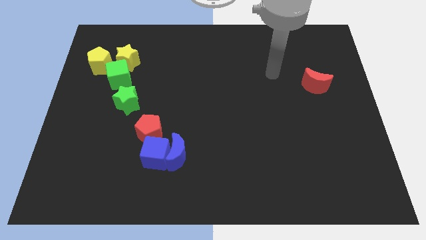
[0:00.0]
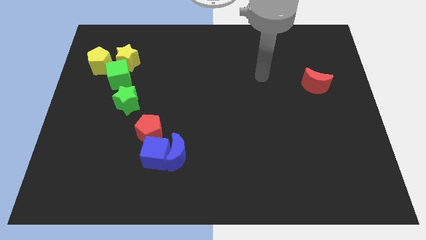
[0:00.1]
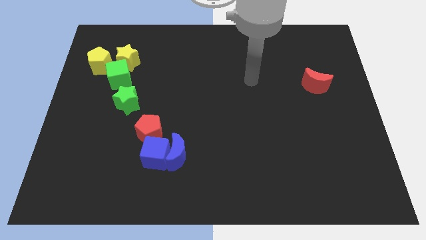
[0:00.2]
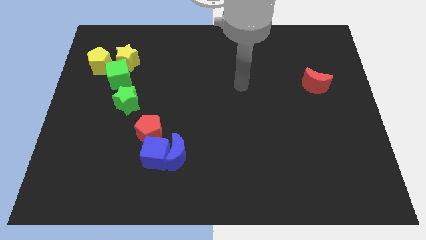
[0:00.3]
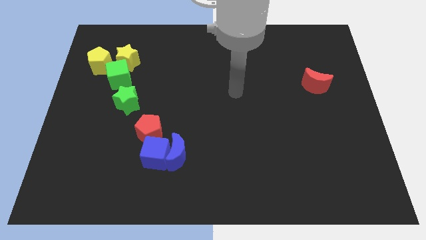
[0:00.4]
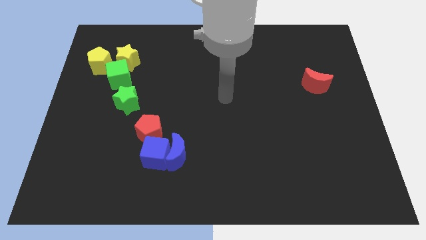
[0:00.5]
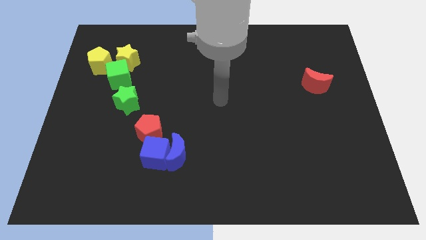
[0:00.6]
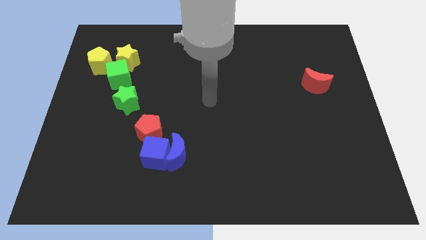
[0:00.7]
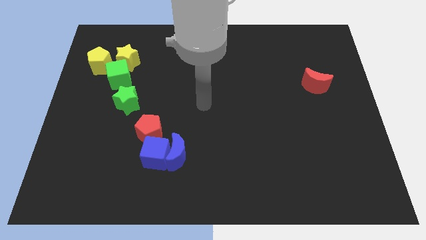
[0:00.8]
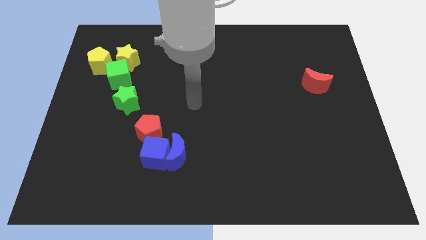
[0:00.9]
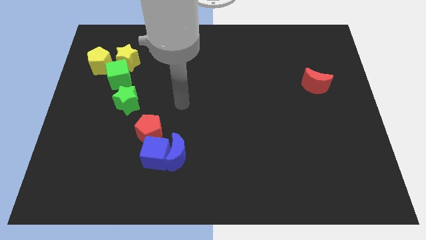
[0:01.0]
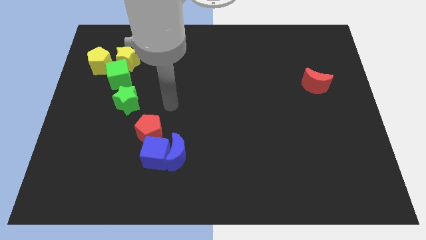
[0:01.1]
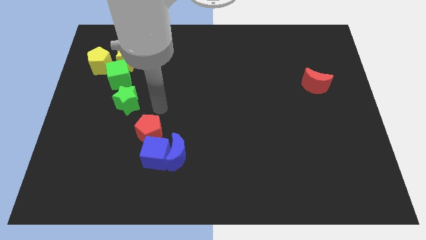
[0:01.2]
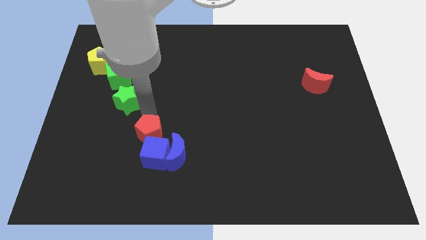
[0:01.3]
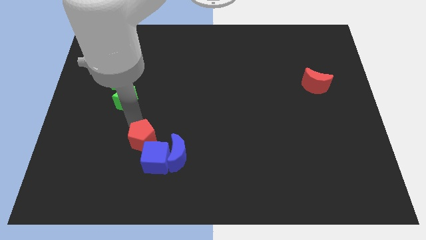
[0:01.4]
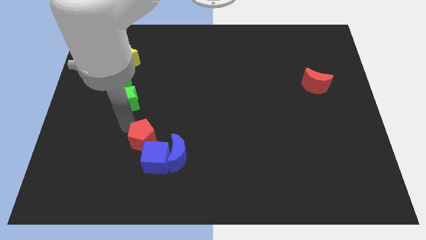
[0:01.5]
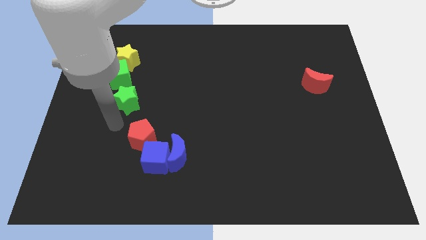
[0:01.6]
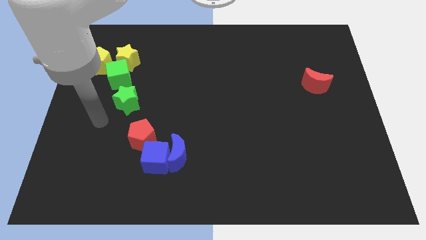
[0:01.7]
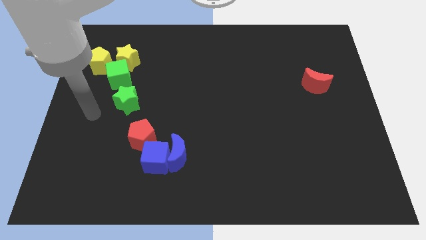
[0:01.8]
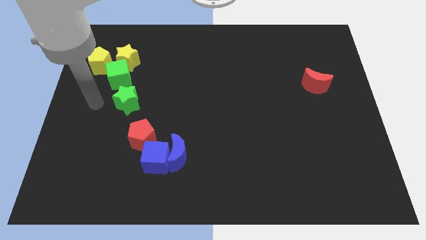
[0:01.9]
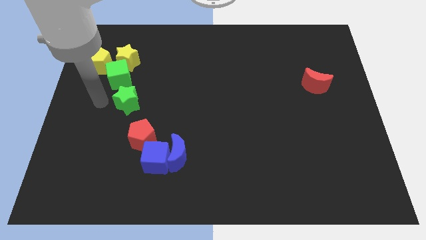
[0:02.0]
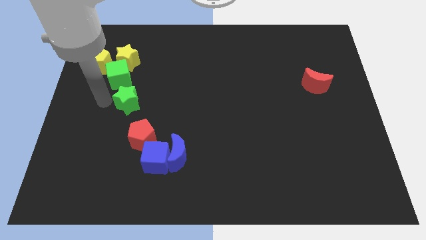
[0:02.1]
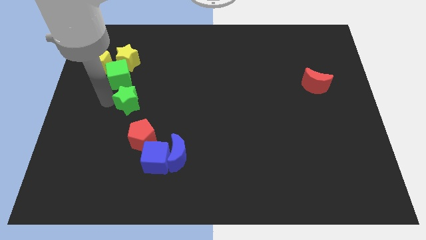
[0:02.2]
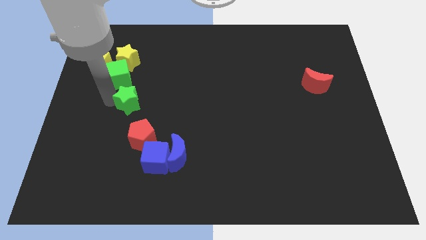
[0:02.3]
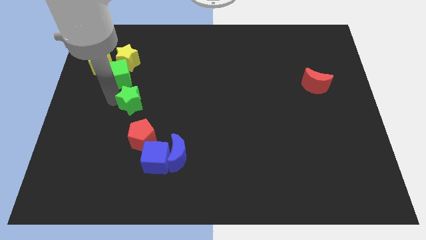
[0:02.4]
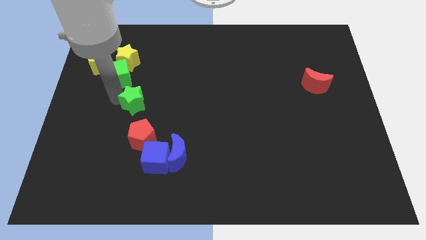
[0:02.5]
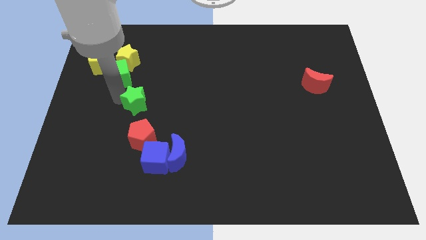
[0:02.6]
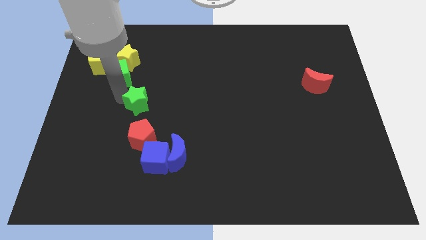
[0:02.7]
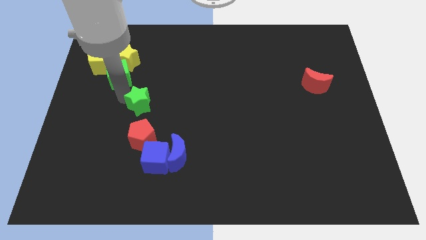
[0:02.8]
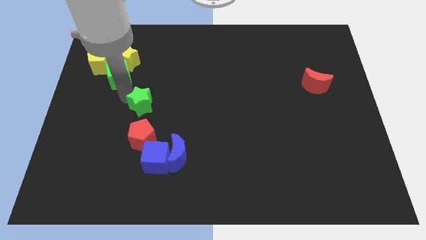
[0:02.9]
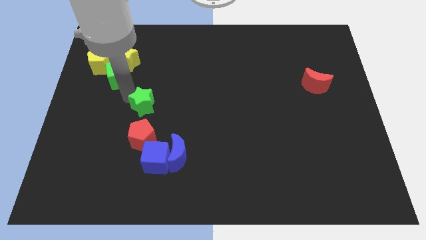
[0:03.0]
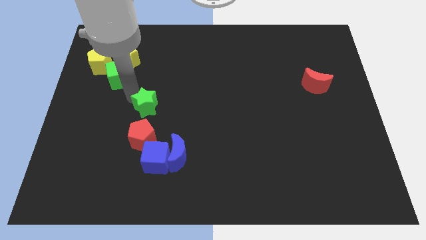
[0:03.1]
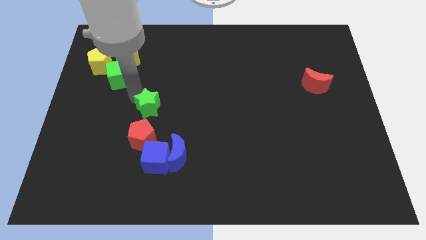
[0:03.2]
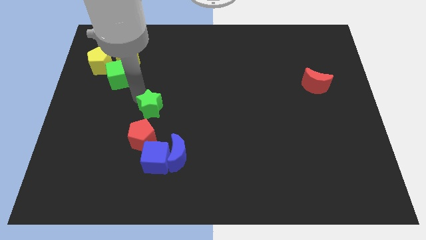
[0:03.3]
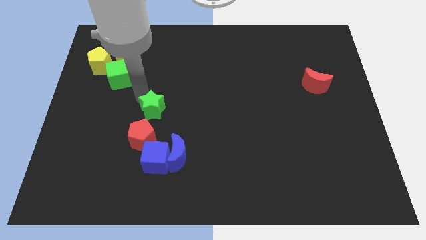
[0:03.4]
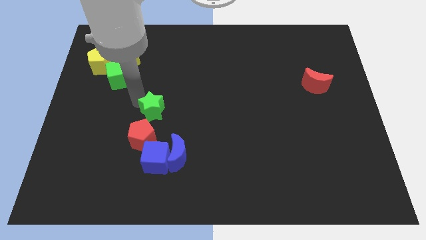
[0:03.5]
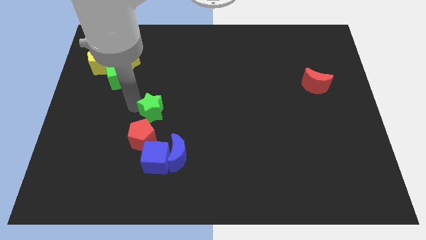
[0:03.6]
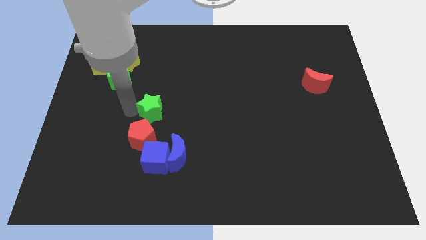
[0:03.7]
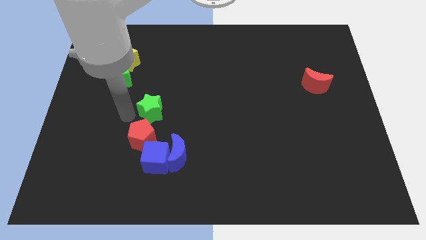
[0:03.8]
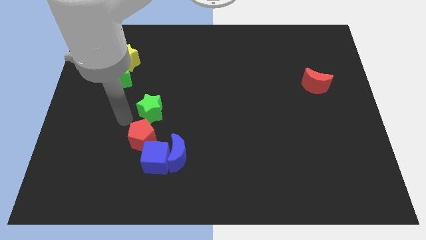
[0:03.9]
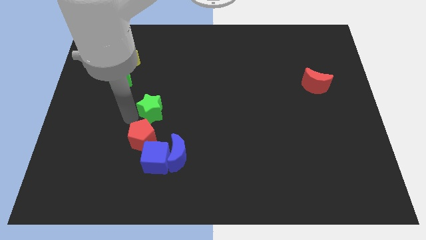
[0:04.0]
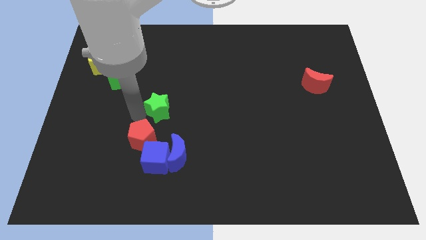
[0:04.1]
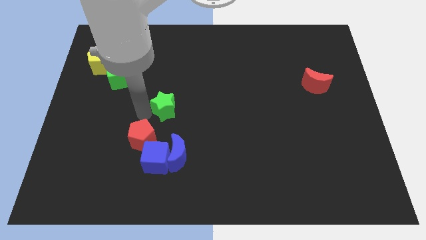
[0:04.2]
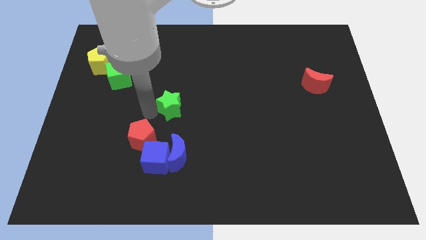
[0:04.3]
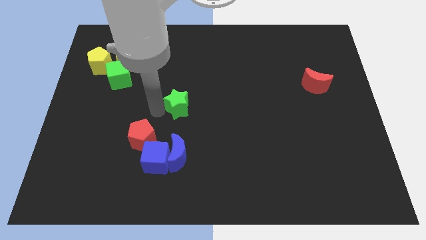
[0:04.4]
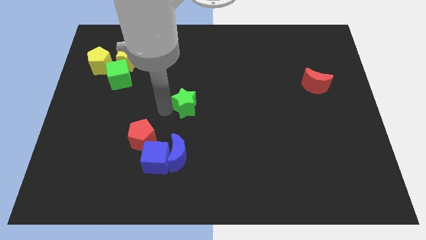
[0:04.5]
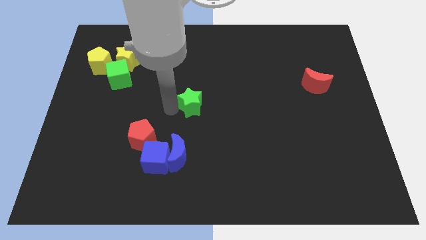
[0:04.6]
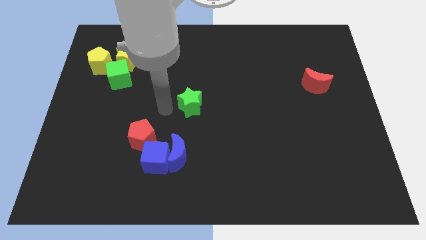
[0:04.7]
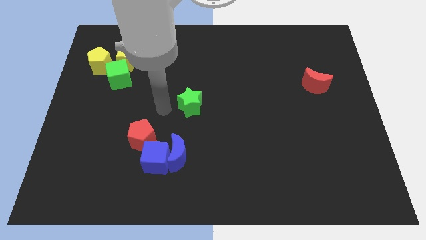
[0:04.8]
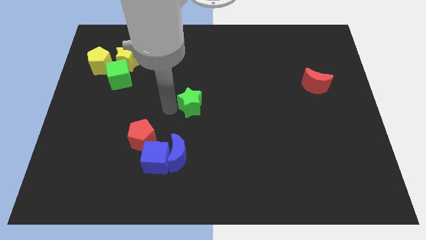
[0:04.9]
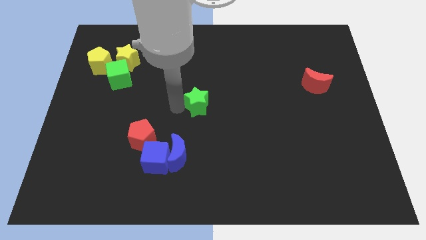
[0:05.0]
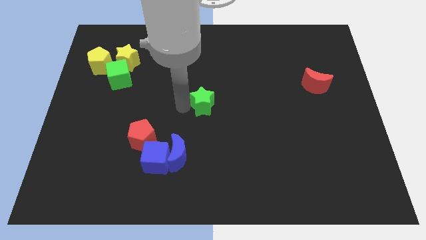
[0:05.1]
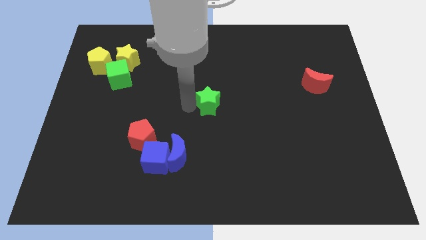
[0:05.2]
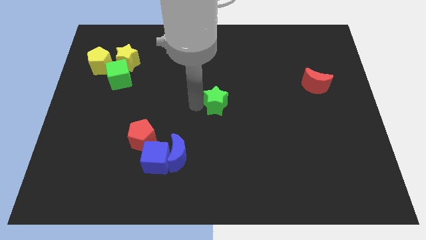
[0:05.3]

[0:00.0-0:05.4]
move the green star right

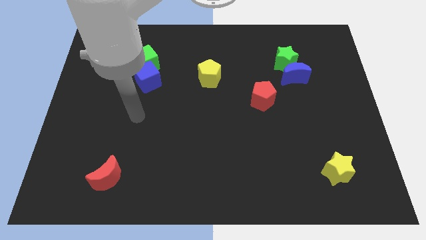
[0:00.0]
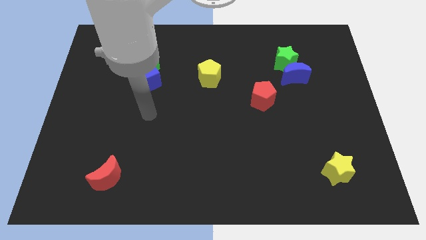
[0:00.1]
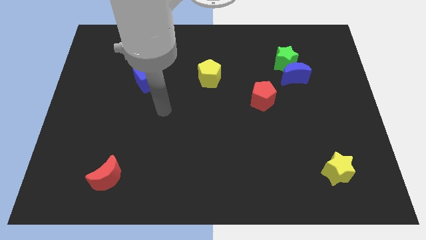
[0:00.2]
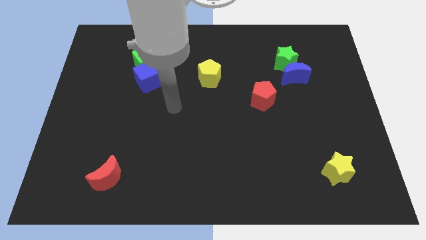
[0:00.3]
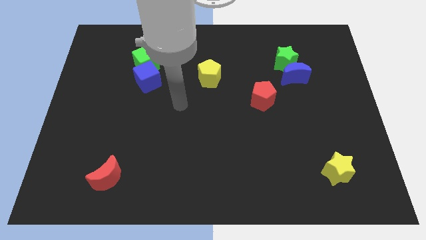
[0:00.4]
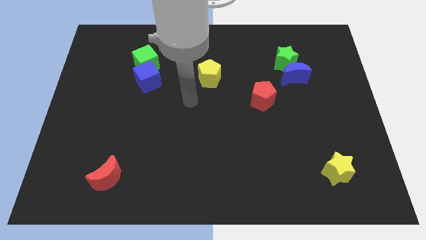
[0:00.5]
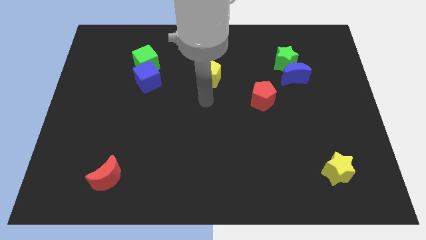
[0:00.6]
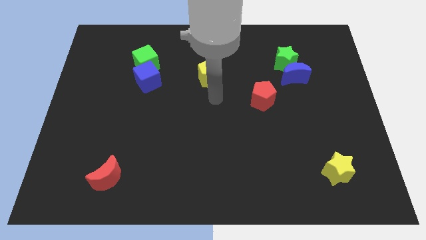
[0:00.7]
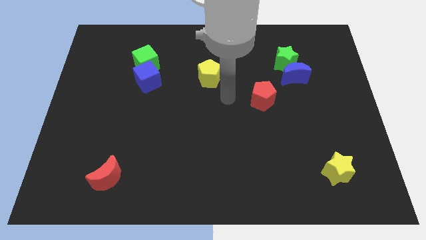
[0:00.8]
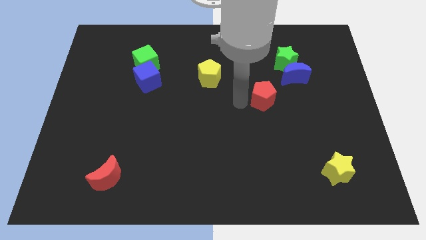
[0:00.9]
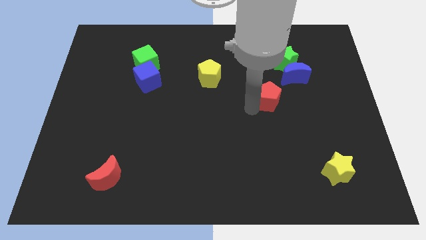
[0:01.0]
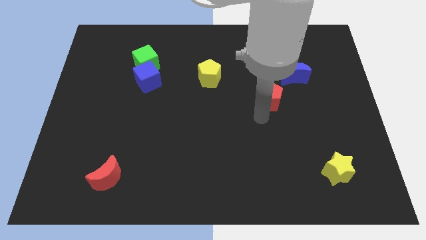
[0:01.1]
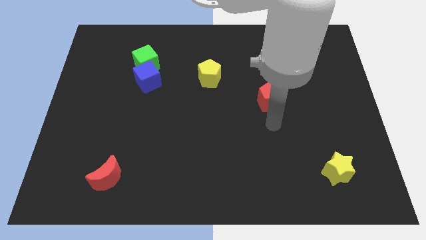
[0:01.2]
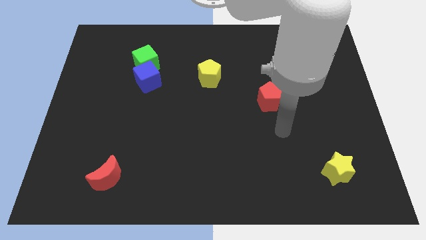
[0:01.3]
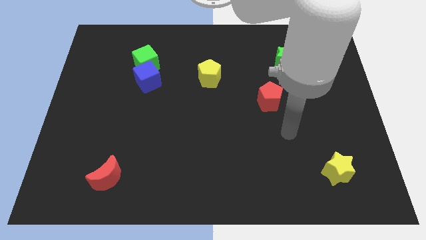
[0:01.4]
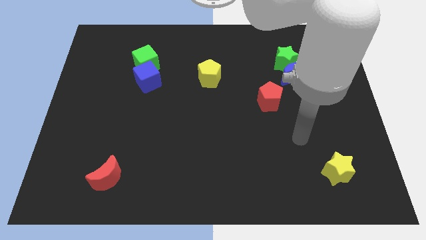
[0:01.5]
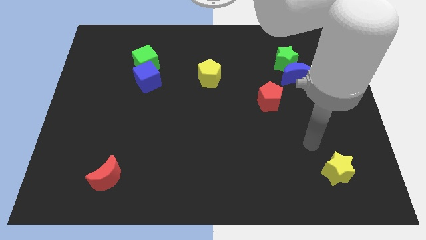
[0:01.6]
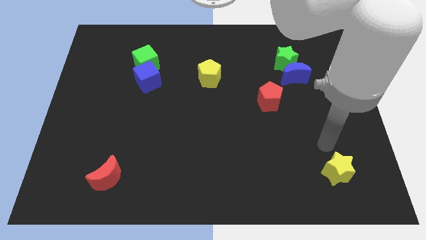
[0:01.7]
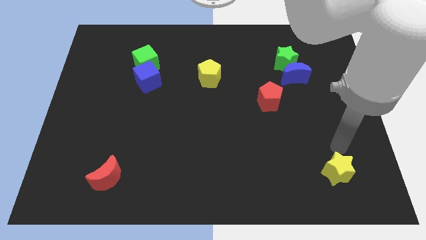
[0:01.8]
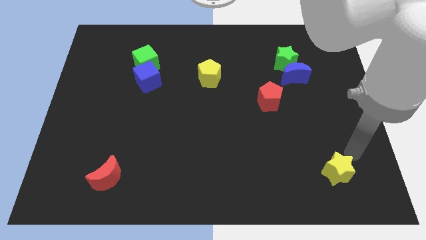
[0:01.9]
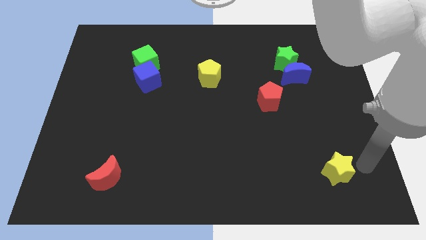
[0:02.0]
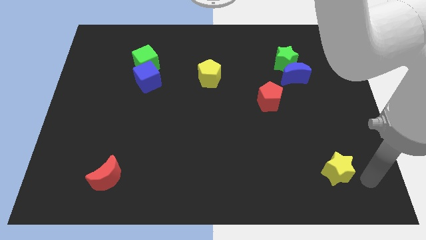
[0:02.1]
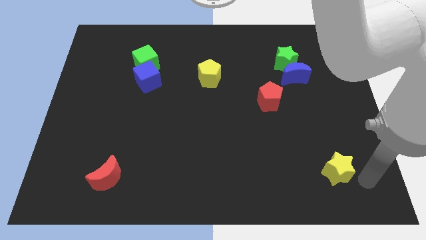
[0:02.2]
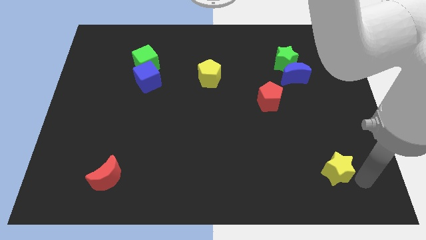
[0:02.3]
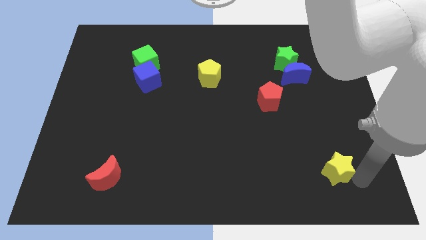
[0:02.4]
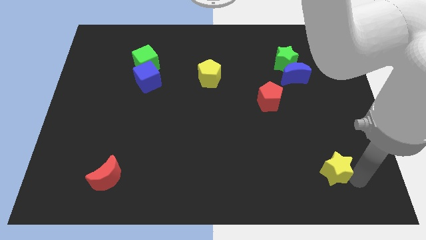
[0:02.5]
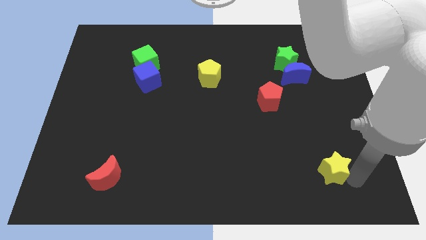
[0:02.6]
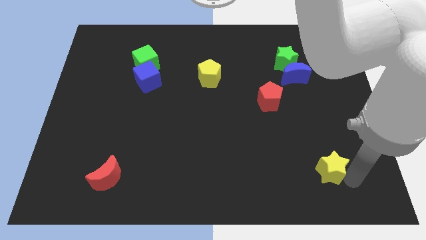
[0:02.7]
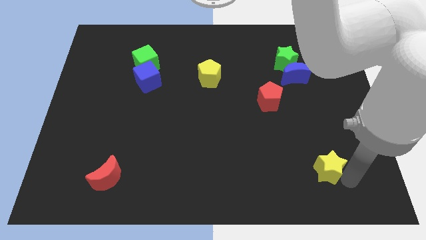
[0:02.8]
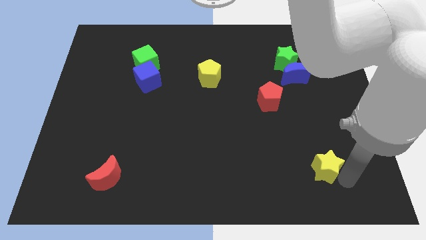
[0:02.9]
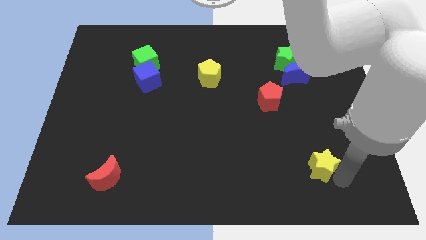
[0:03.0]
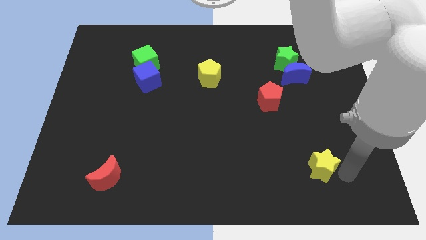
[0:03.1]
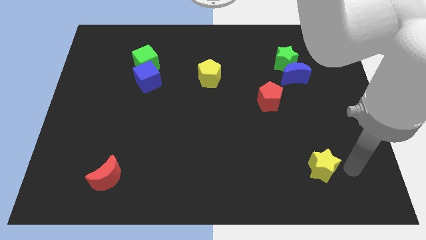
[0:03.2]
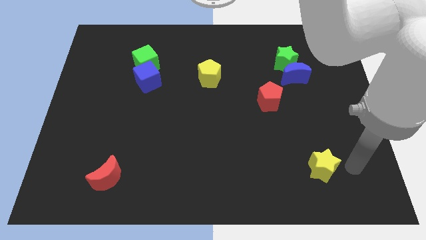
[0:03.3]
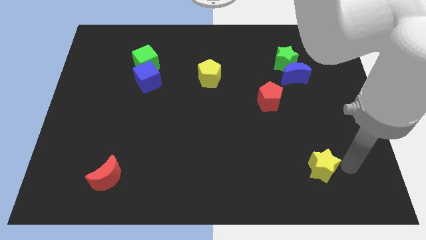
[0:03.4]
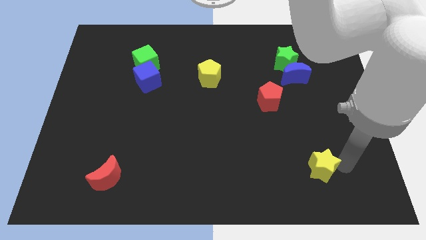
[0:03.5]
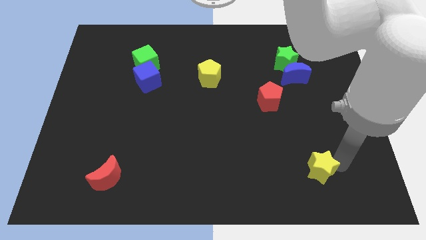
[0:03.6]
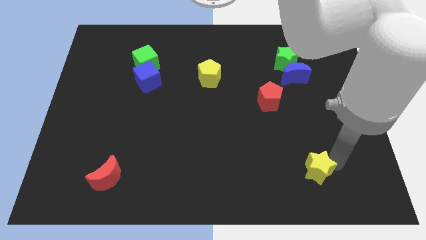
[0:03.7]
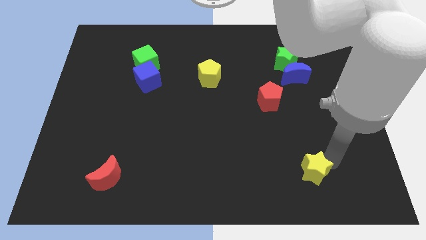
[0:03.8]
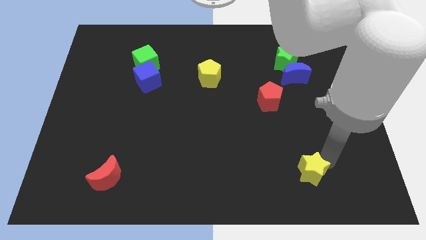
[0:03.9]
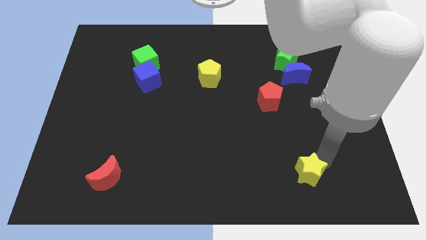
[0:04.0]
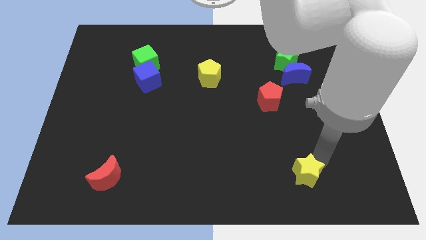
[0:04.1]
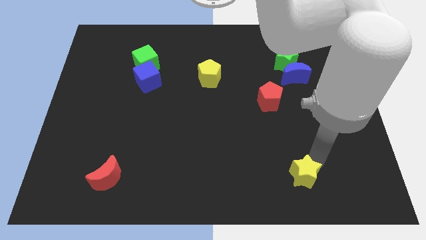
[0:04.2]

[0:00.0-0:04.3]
push the yellow star a bit left
